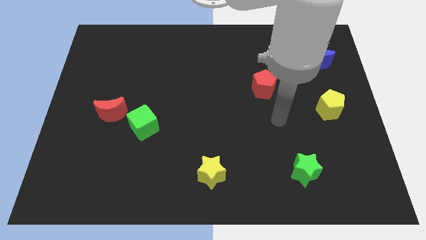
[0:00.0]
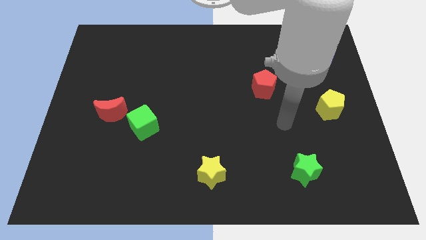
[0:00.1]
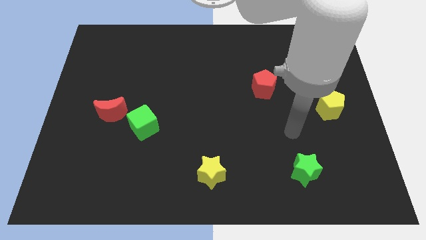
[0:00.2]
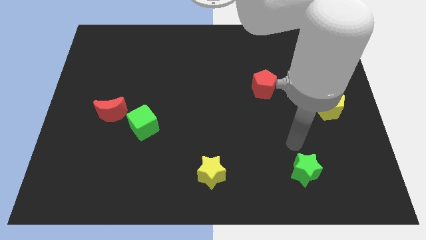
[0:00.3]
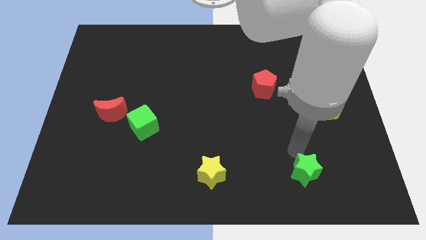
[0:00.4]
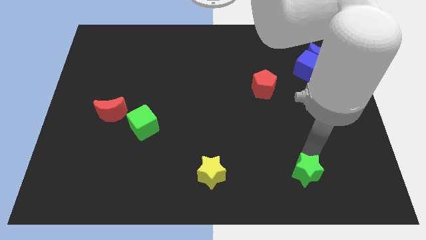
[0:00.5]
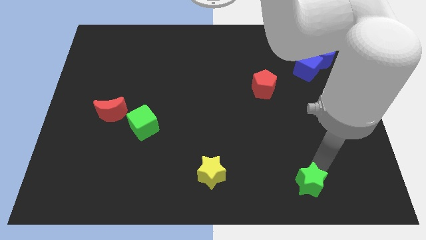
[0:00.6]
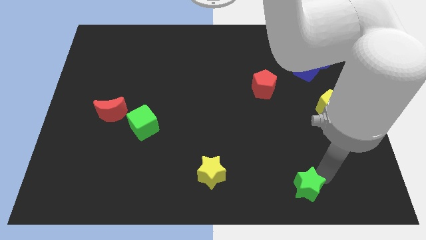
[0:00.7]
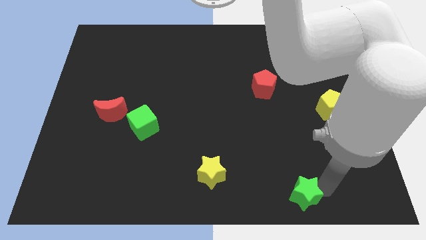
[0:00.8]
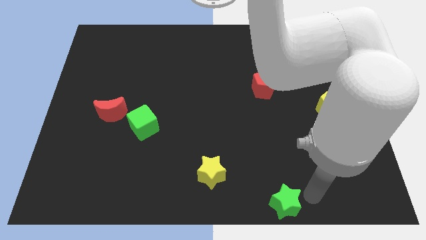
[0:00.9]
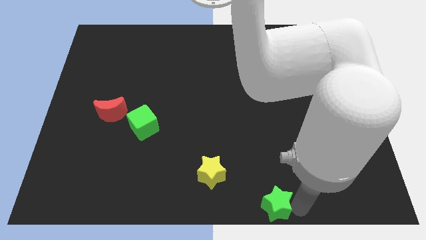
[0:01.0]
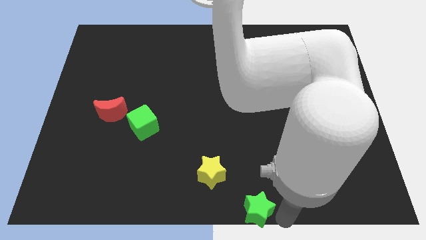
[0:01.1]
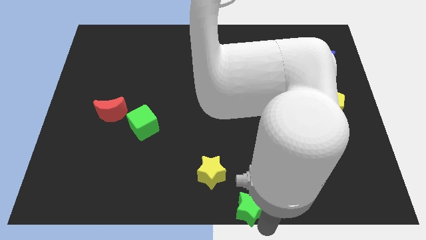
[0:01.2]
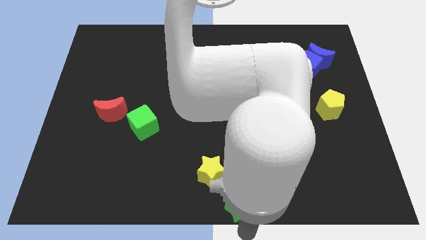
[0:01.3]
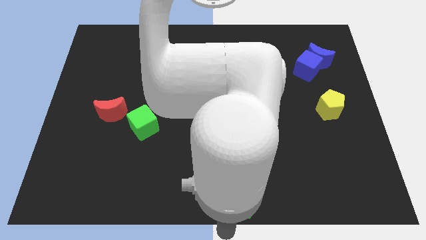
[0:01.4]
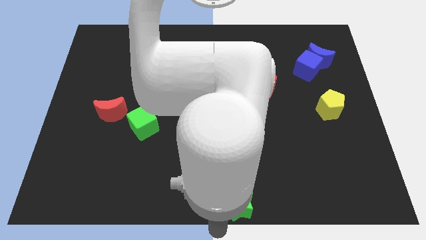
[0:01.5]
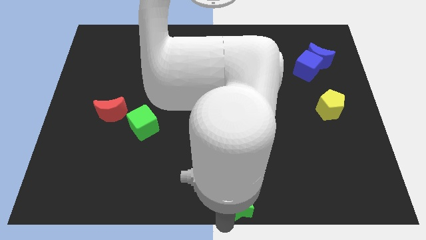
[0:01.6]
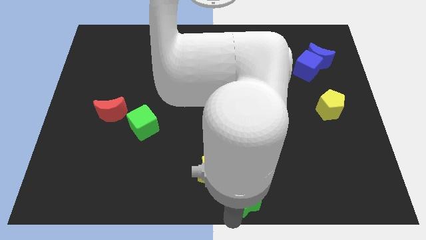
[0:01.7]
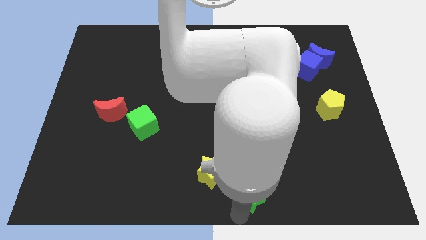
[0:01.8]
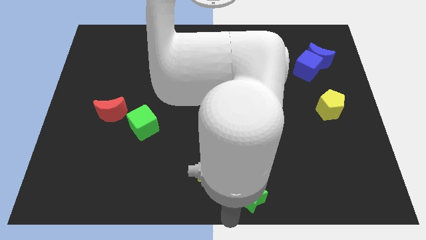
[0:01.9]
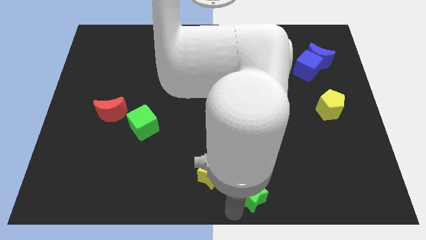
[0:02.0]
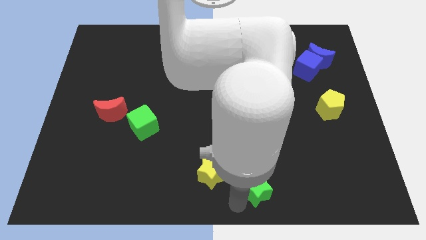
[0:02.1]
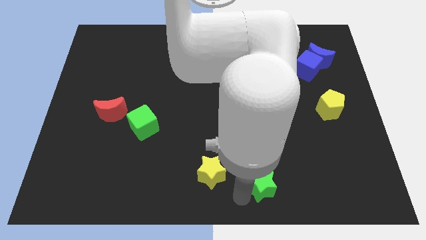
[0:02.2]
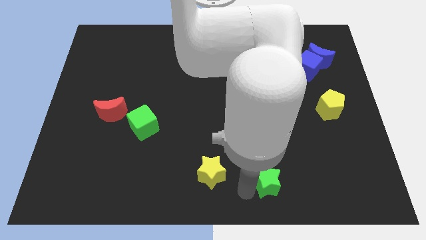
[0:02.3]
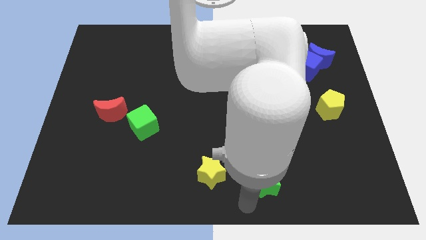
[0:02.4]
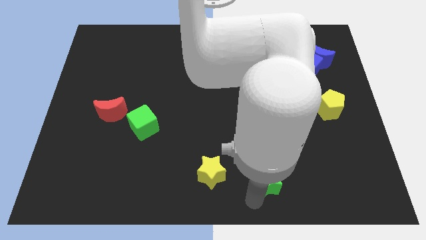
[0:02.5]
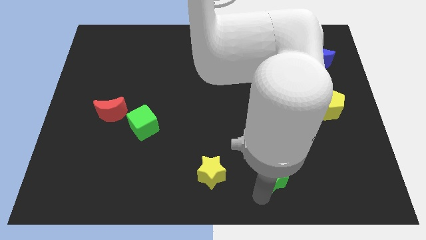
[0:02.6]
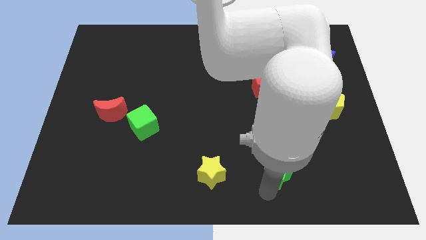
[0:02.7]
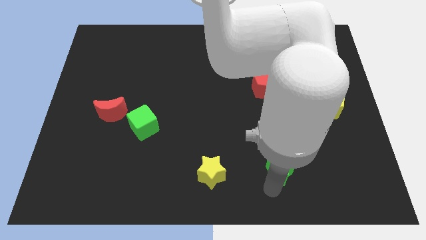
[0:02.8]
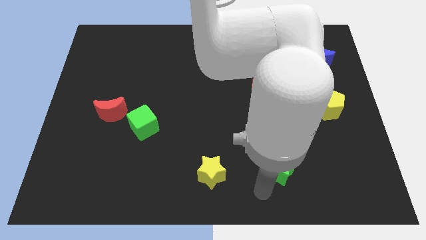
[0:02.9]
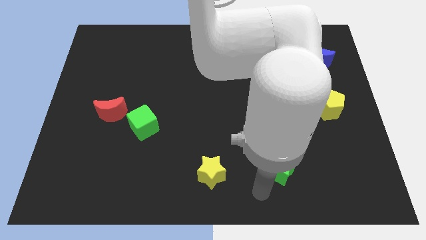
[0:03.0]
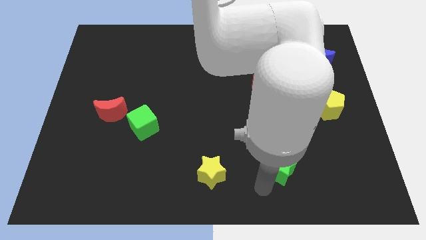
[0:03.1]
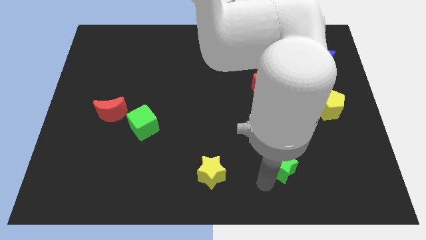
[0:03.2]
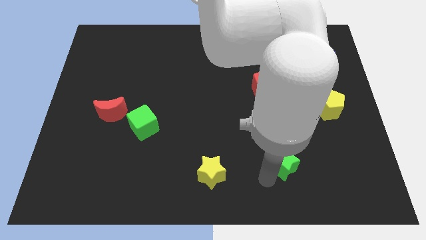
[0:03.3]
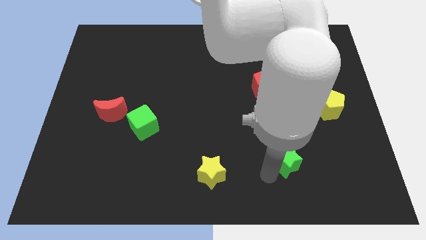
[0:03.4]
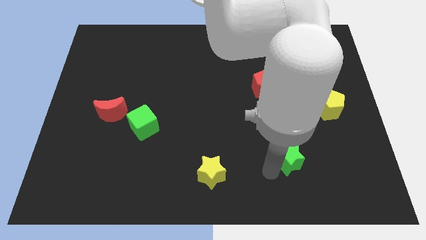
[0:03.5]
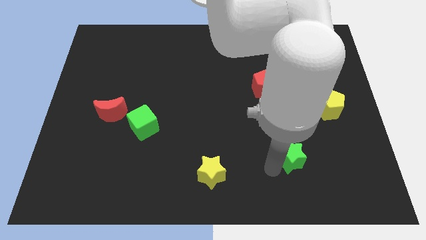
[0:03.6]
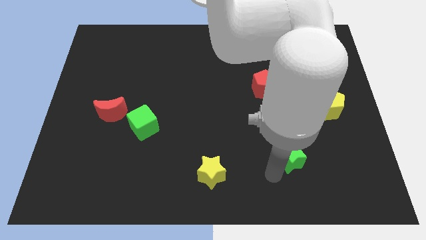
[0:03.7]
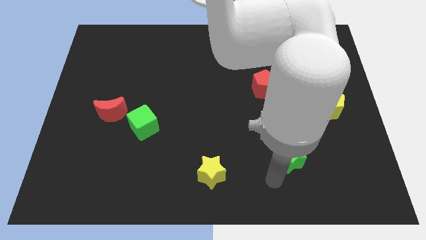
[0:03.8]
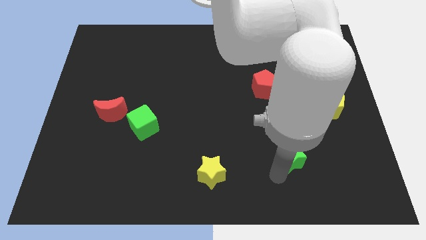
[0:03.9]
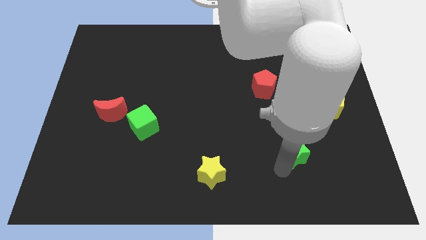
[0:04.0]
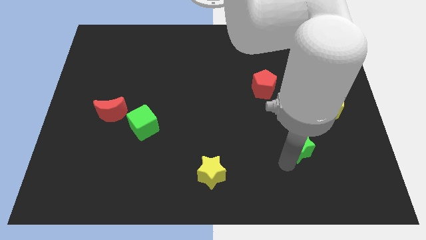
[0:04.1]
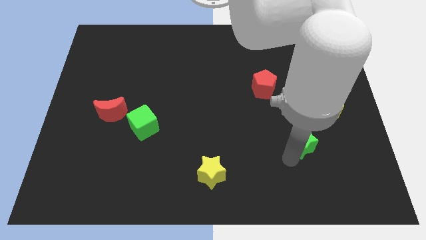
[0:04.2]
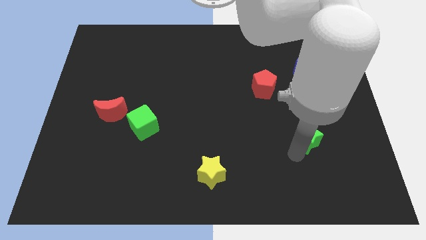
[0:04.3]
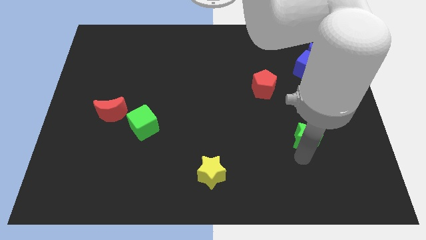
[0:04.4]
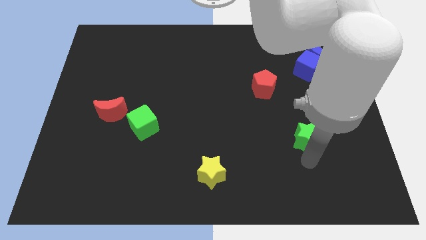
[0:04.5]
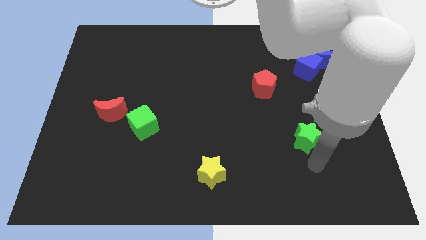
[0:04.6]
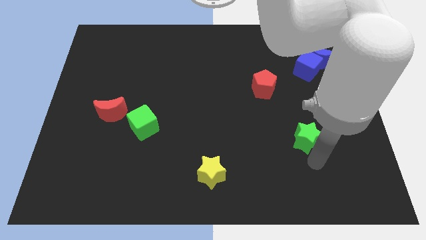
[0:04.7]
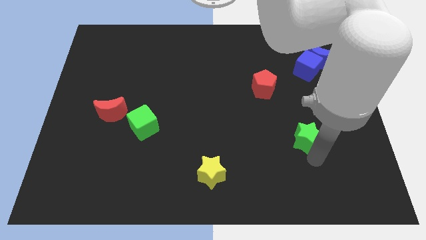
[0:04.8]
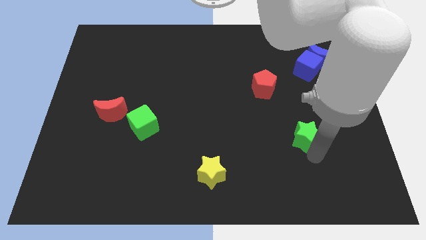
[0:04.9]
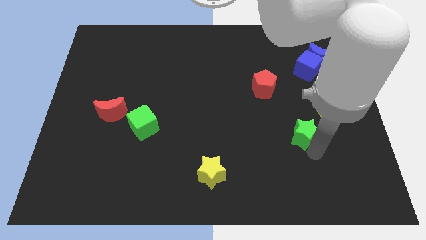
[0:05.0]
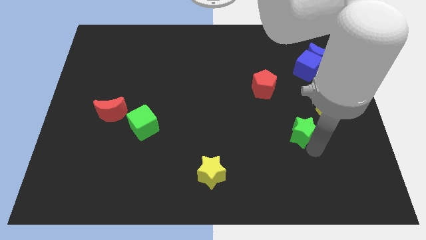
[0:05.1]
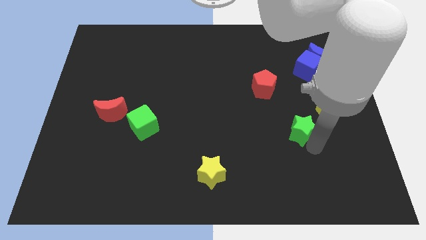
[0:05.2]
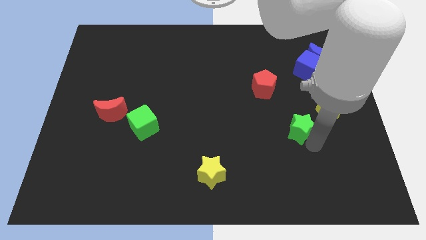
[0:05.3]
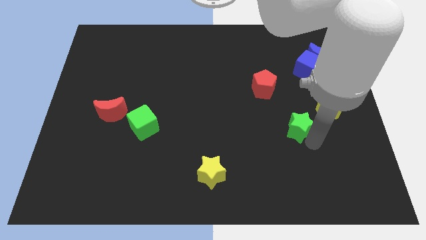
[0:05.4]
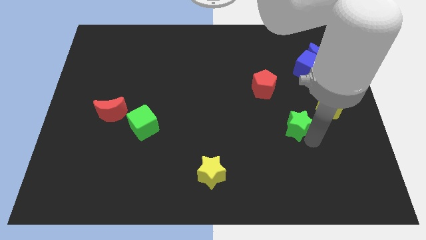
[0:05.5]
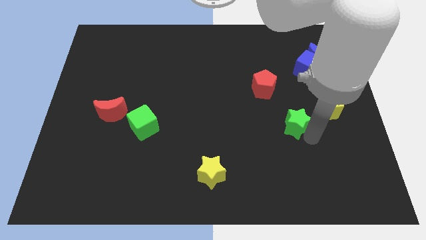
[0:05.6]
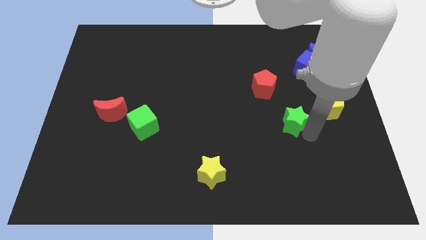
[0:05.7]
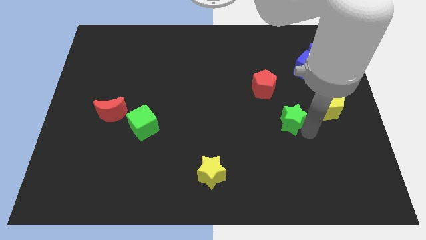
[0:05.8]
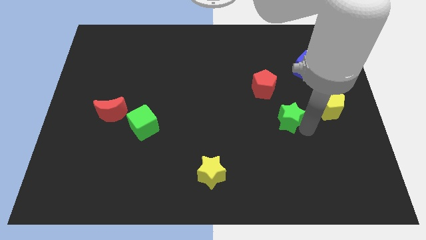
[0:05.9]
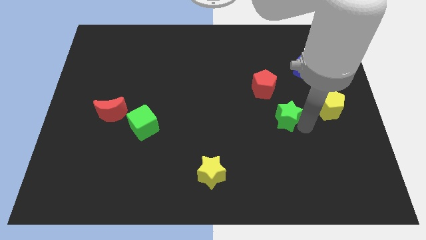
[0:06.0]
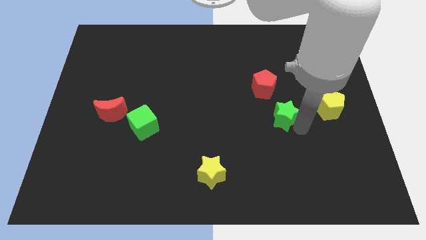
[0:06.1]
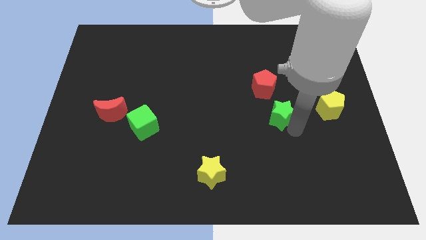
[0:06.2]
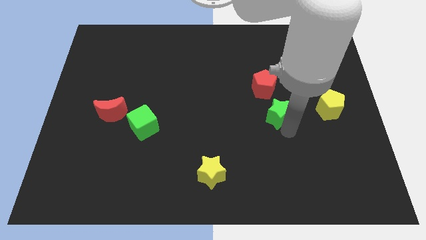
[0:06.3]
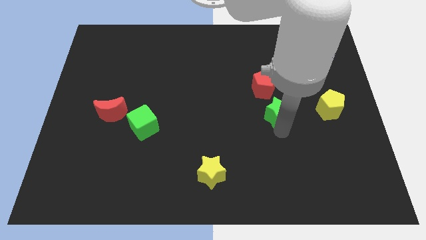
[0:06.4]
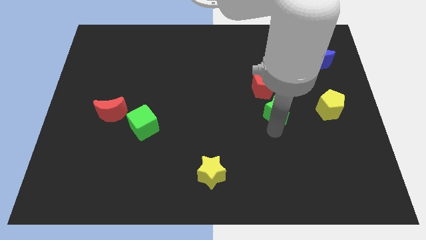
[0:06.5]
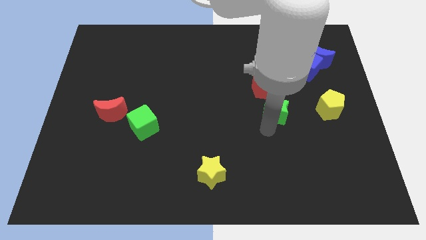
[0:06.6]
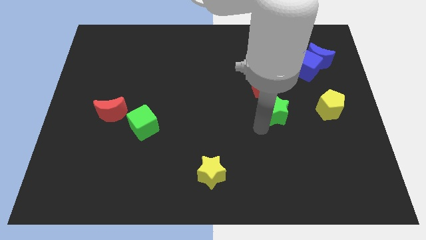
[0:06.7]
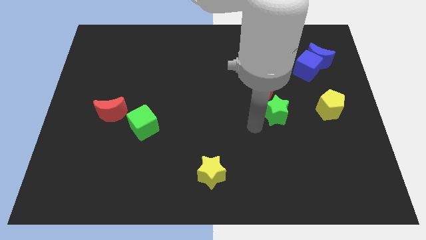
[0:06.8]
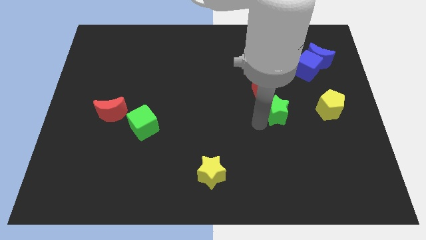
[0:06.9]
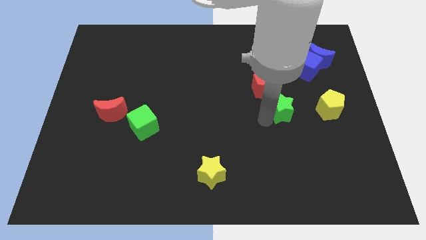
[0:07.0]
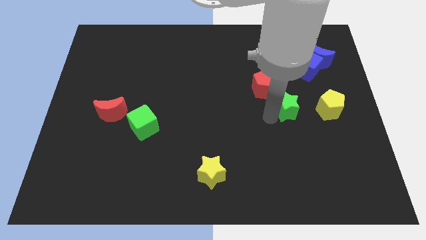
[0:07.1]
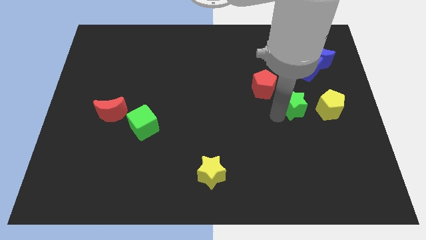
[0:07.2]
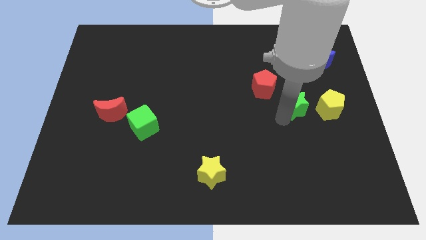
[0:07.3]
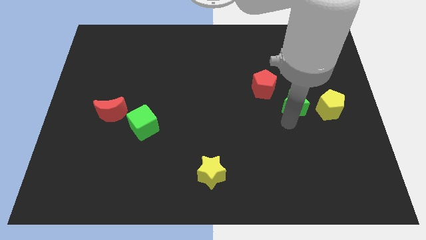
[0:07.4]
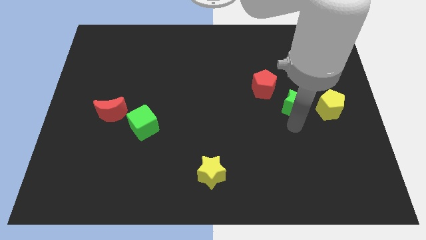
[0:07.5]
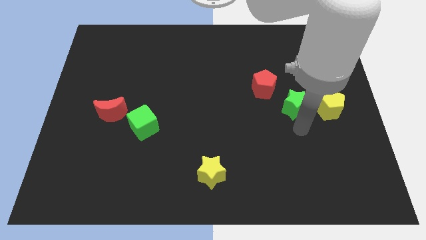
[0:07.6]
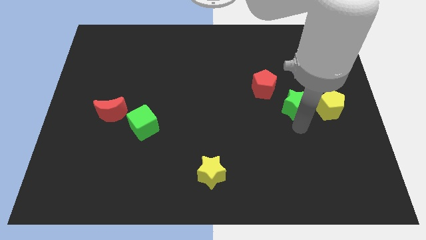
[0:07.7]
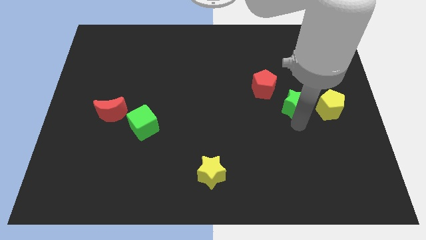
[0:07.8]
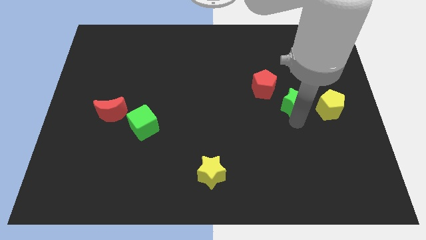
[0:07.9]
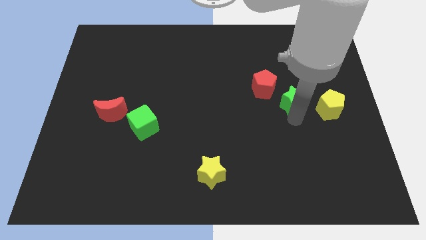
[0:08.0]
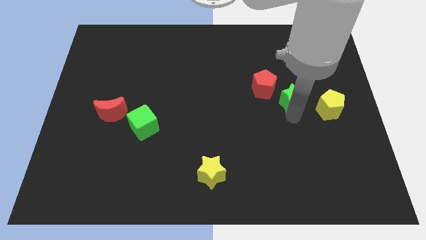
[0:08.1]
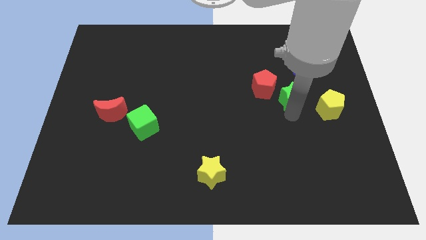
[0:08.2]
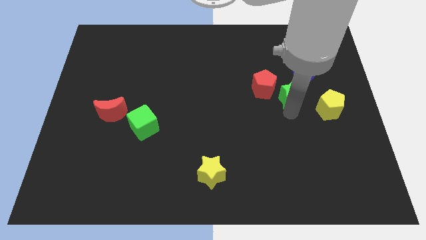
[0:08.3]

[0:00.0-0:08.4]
push the green star upwards
